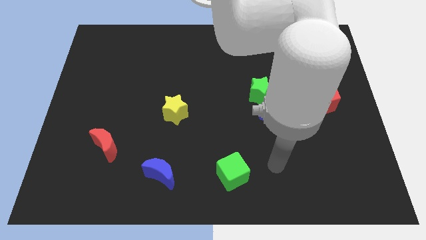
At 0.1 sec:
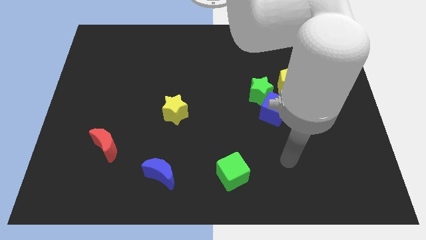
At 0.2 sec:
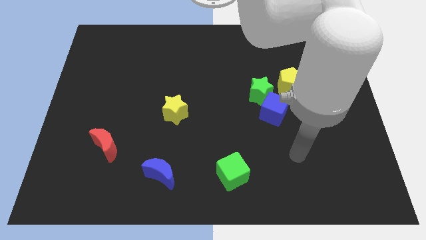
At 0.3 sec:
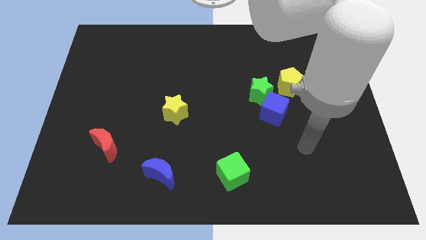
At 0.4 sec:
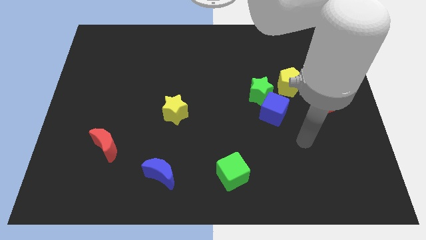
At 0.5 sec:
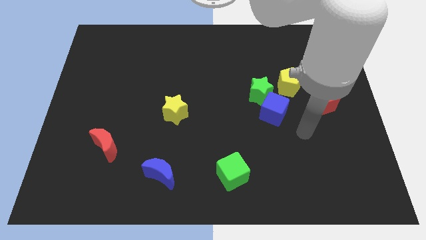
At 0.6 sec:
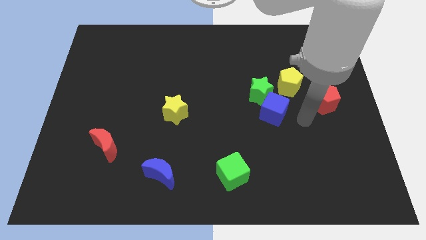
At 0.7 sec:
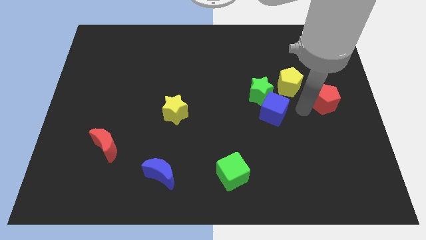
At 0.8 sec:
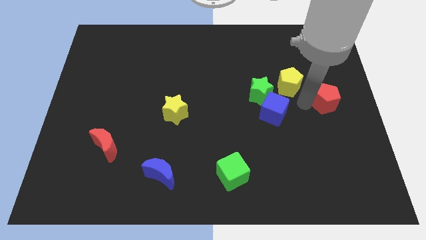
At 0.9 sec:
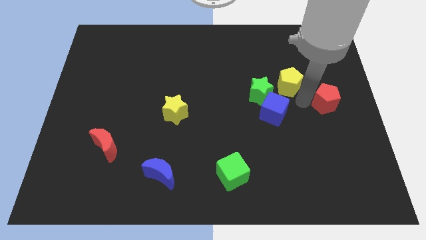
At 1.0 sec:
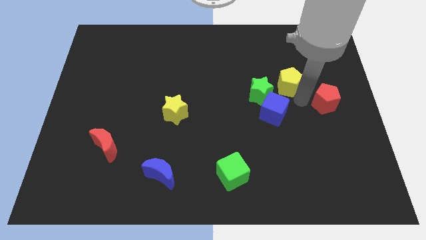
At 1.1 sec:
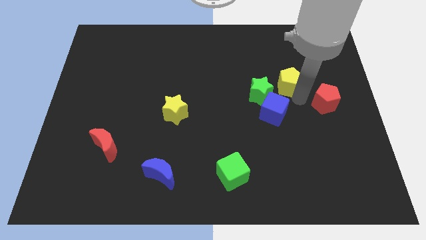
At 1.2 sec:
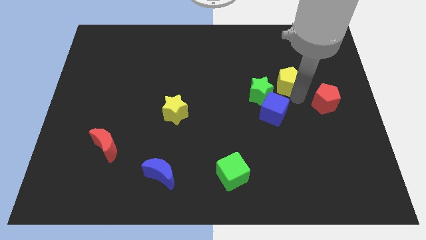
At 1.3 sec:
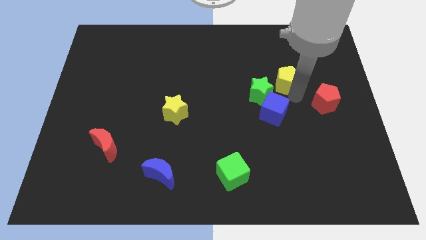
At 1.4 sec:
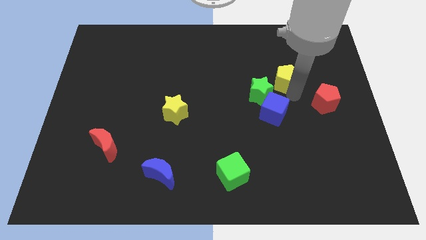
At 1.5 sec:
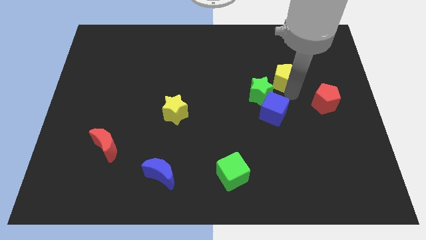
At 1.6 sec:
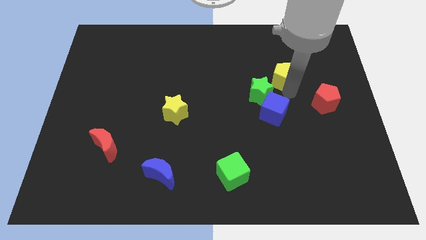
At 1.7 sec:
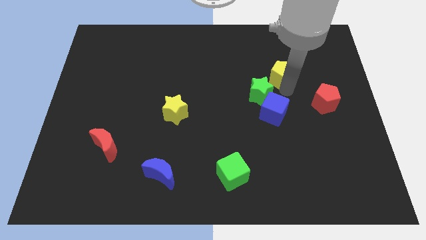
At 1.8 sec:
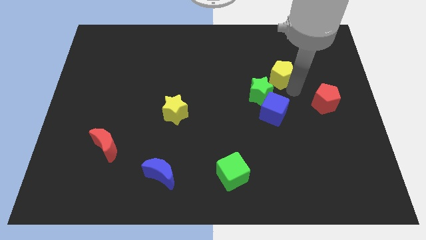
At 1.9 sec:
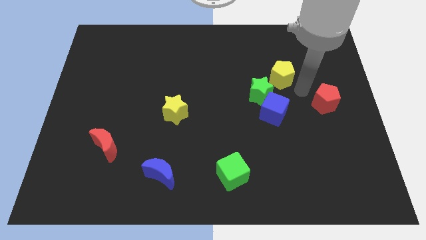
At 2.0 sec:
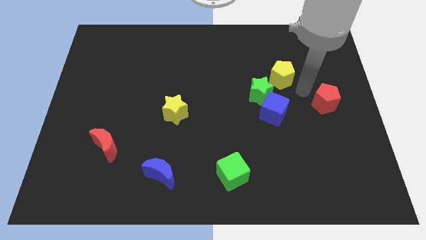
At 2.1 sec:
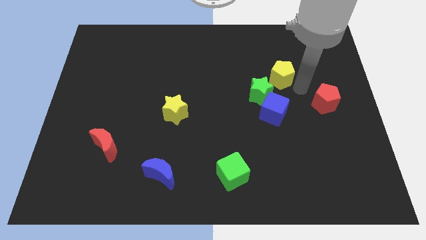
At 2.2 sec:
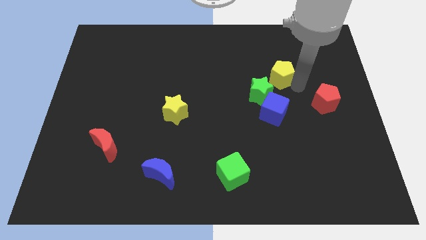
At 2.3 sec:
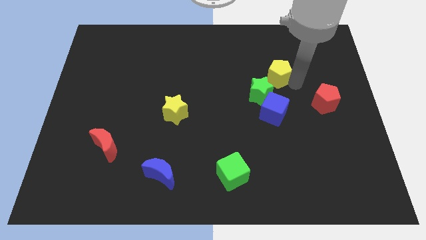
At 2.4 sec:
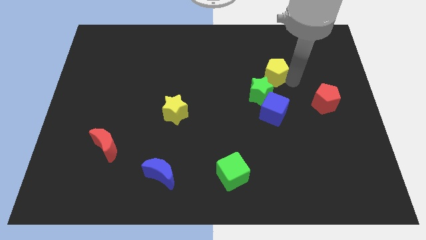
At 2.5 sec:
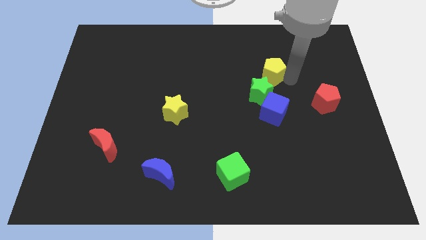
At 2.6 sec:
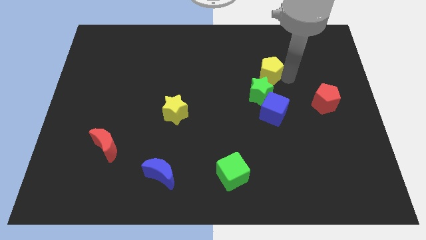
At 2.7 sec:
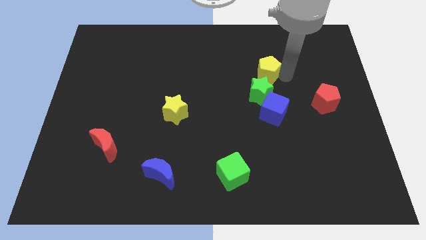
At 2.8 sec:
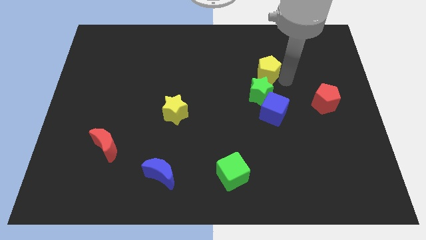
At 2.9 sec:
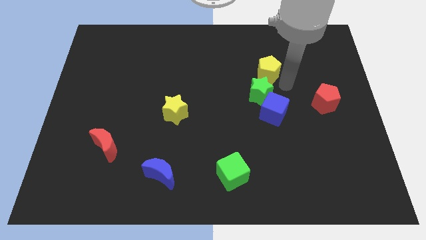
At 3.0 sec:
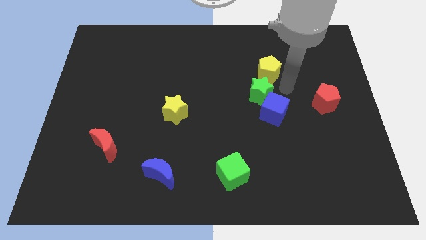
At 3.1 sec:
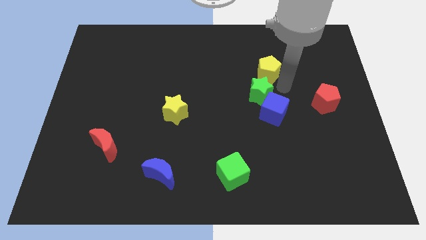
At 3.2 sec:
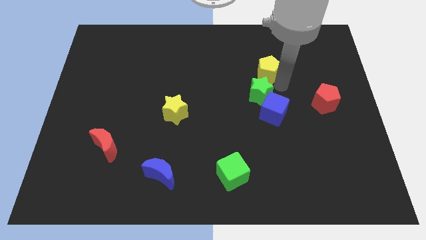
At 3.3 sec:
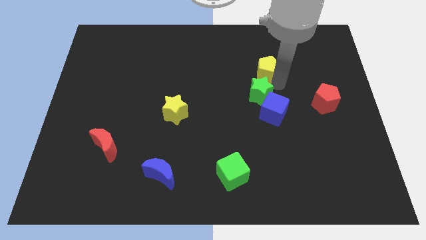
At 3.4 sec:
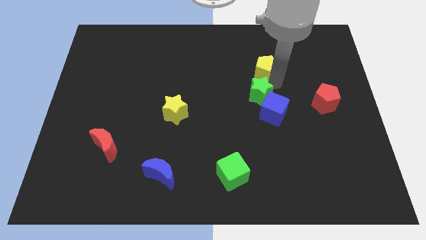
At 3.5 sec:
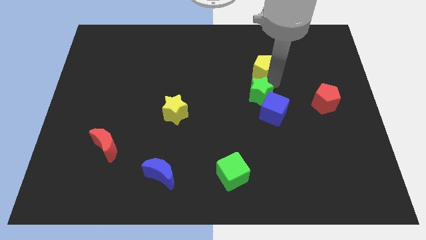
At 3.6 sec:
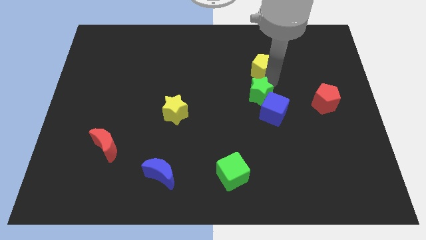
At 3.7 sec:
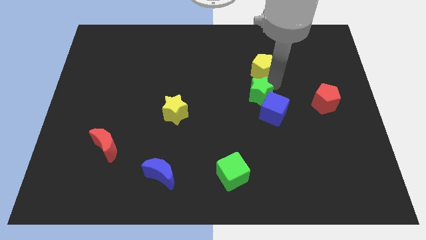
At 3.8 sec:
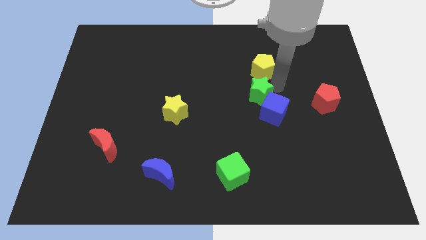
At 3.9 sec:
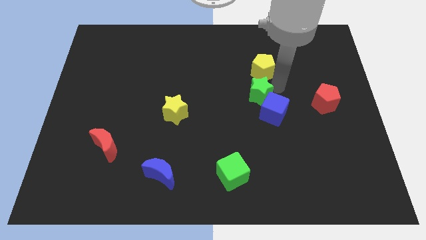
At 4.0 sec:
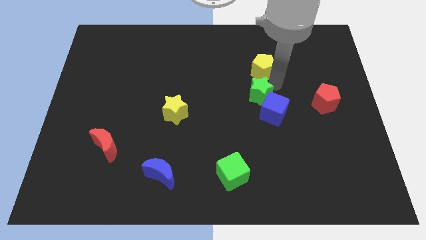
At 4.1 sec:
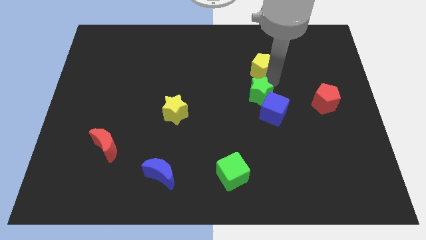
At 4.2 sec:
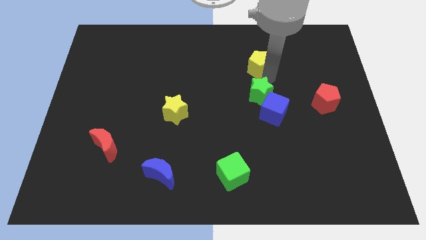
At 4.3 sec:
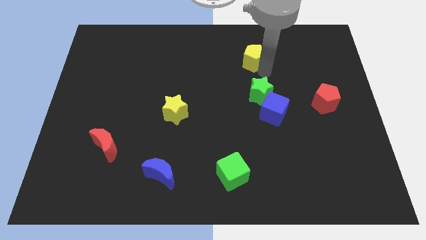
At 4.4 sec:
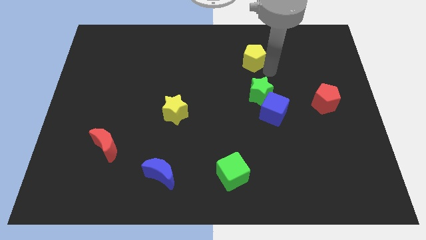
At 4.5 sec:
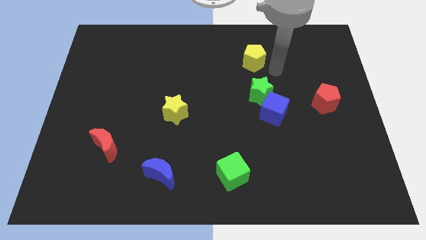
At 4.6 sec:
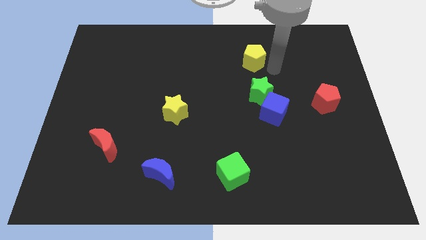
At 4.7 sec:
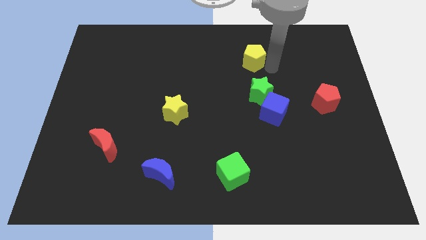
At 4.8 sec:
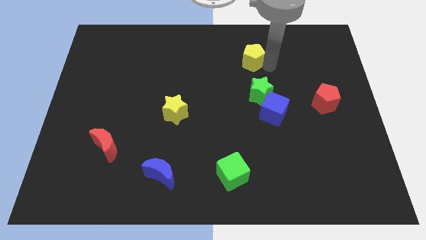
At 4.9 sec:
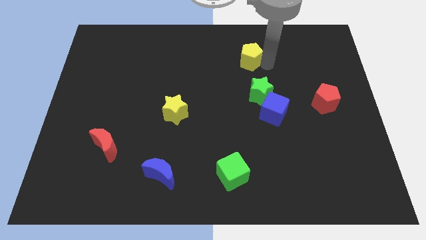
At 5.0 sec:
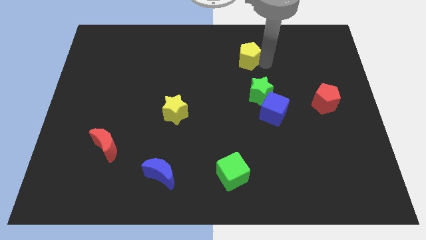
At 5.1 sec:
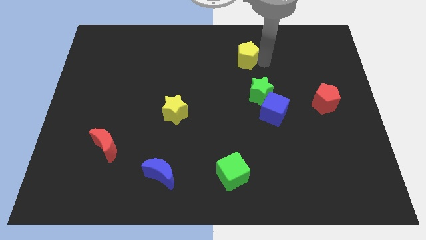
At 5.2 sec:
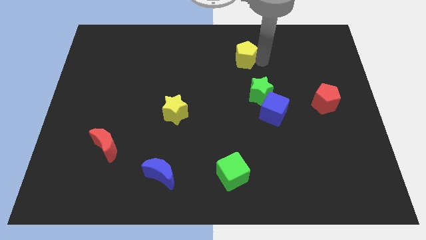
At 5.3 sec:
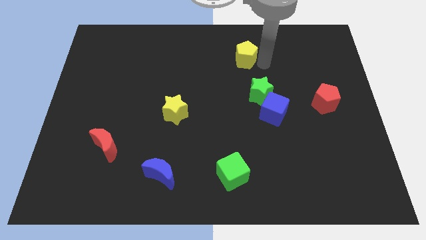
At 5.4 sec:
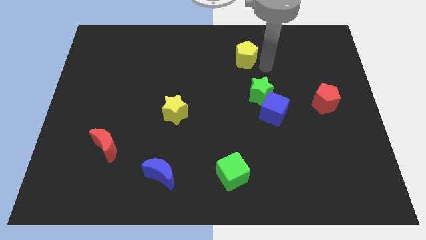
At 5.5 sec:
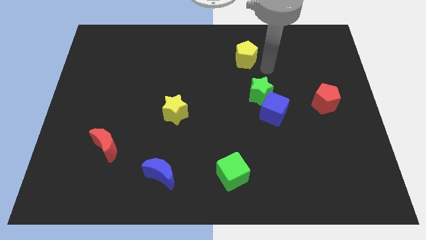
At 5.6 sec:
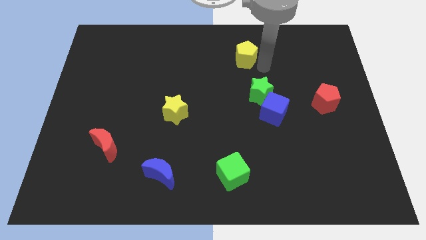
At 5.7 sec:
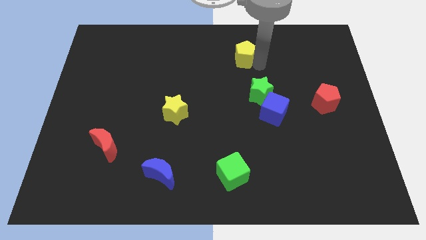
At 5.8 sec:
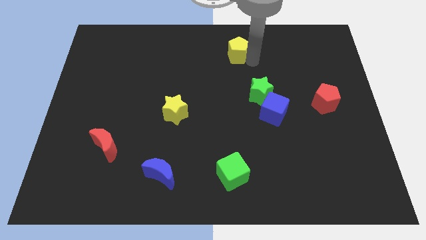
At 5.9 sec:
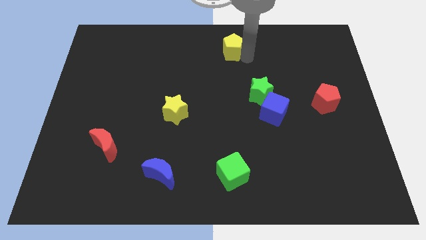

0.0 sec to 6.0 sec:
put the yellow pentagon to the towards your base

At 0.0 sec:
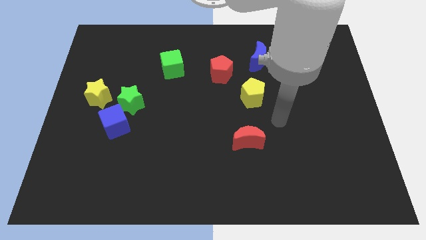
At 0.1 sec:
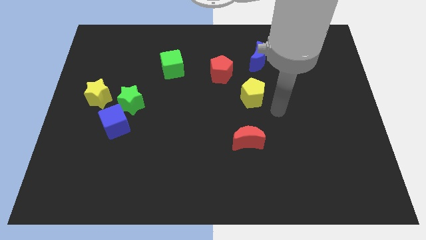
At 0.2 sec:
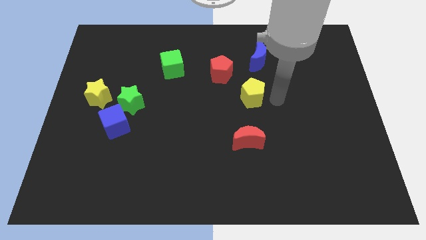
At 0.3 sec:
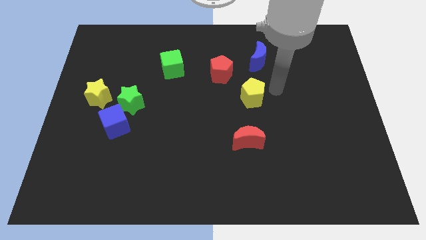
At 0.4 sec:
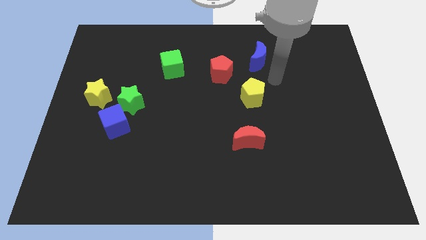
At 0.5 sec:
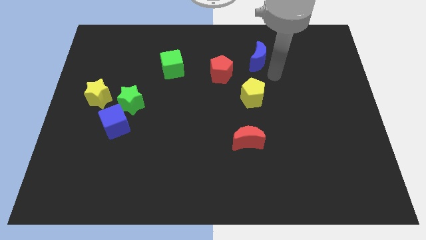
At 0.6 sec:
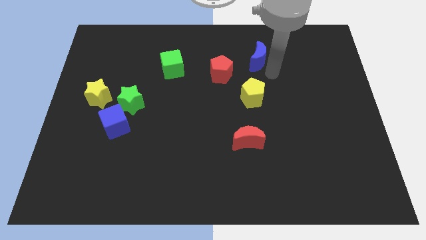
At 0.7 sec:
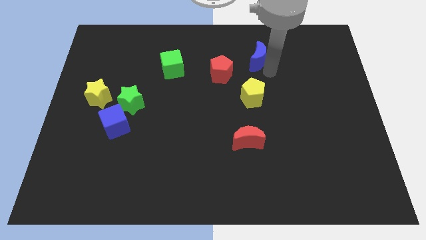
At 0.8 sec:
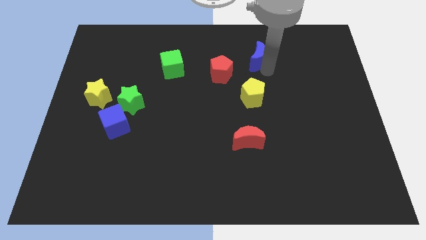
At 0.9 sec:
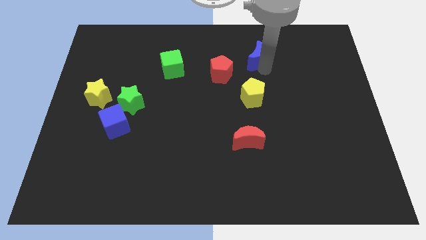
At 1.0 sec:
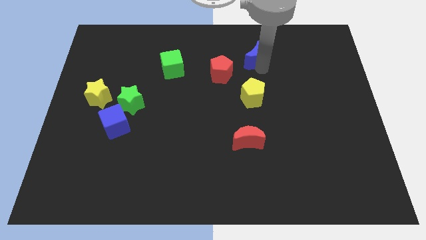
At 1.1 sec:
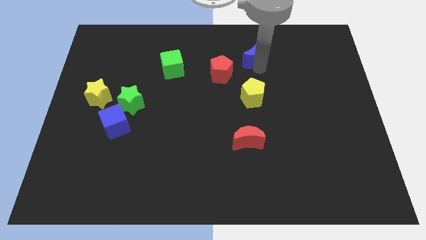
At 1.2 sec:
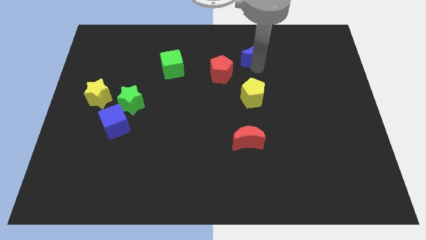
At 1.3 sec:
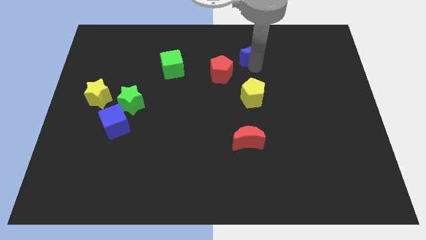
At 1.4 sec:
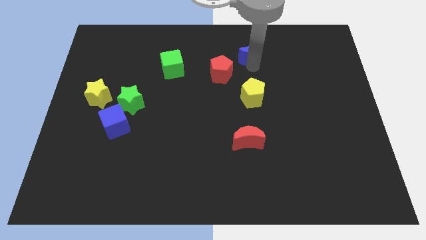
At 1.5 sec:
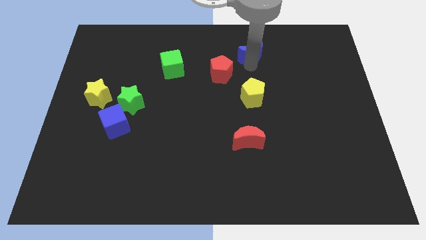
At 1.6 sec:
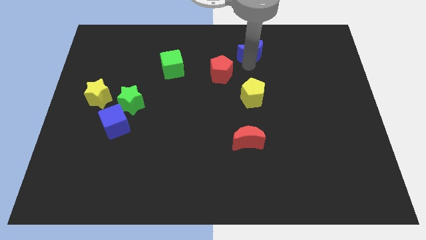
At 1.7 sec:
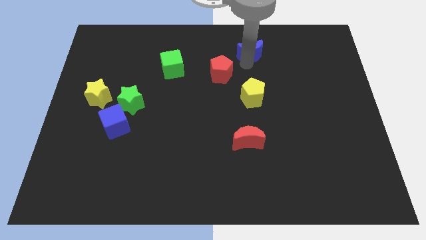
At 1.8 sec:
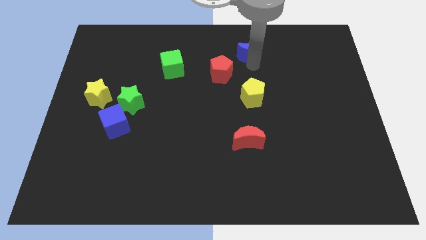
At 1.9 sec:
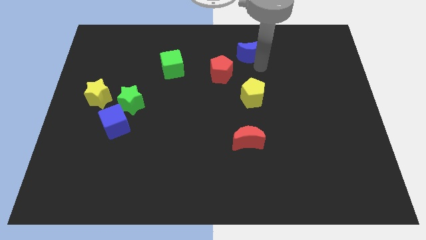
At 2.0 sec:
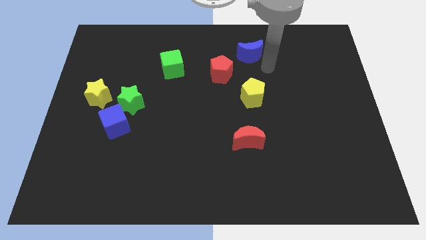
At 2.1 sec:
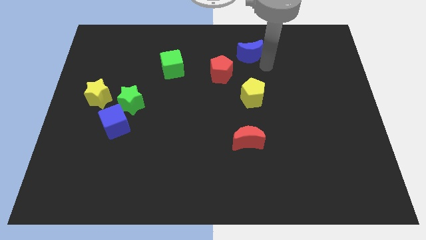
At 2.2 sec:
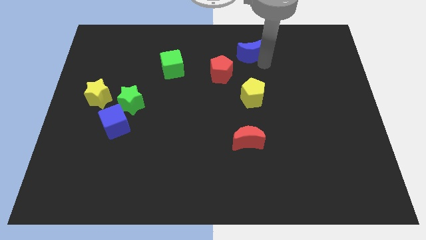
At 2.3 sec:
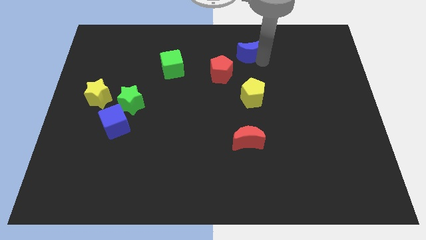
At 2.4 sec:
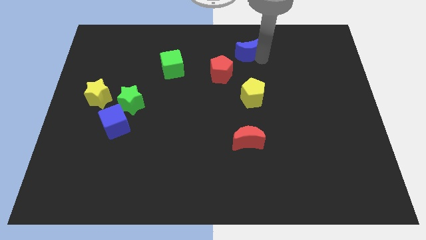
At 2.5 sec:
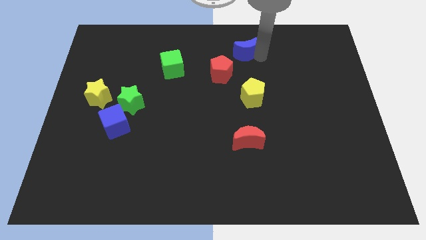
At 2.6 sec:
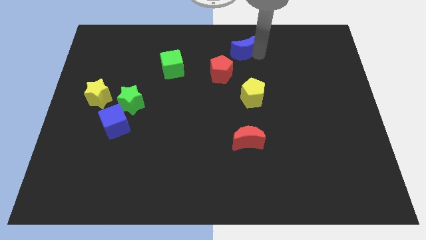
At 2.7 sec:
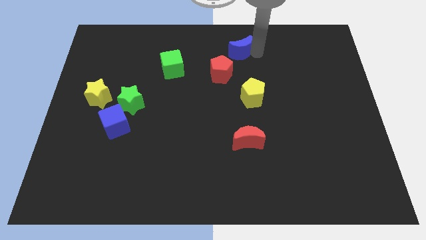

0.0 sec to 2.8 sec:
put the blue moon to the towards your base
